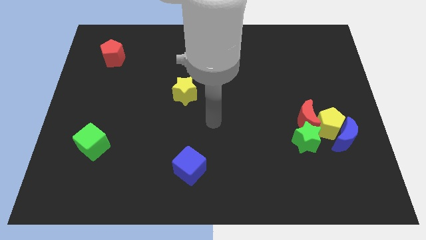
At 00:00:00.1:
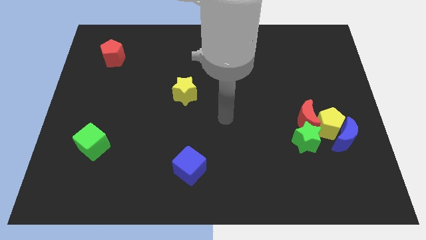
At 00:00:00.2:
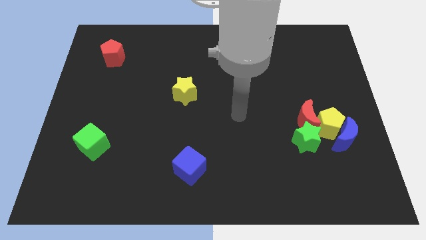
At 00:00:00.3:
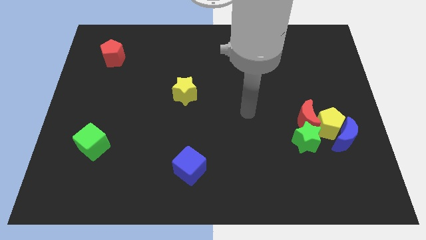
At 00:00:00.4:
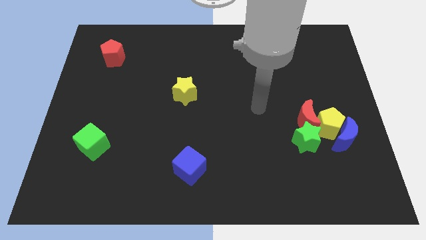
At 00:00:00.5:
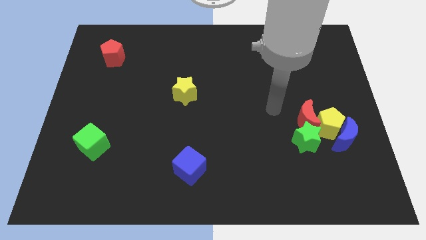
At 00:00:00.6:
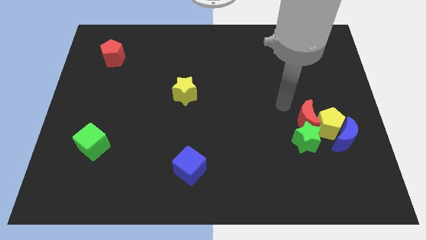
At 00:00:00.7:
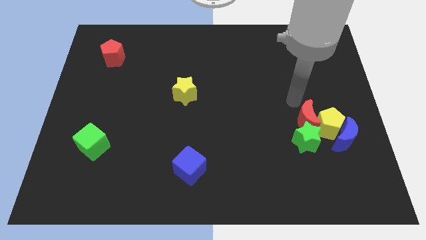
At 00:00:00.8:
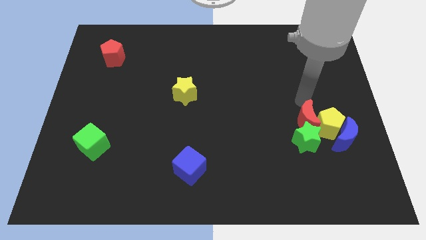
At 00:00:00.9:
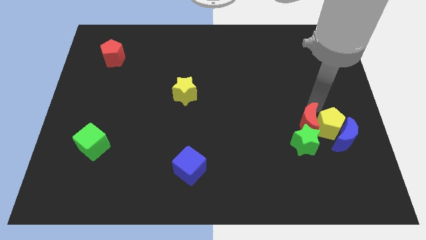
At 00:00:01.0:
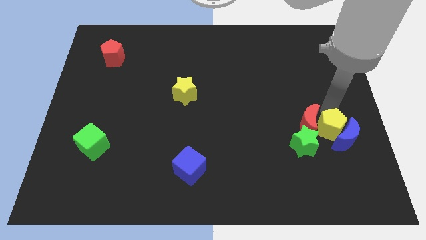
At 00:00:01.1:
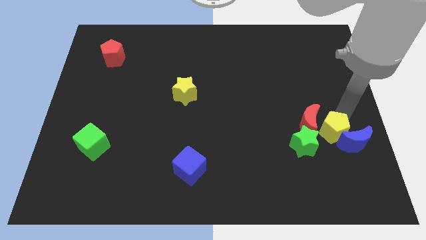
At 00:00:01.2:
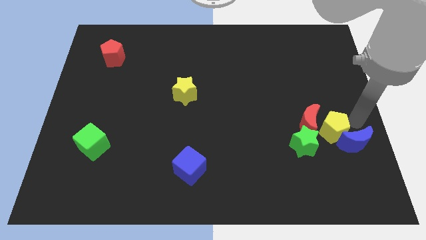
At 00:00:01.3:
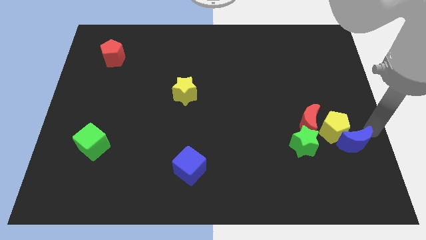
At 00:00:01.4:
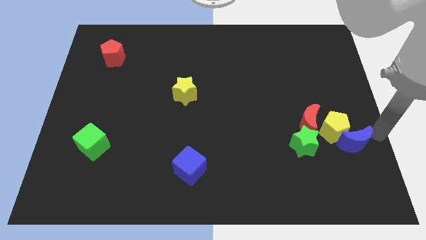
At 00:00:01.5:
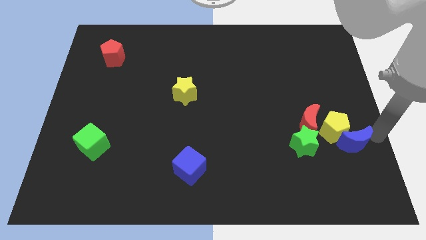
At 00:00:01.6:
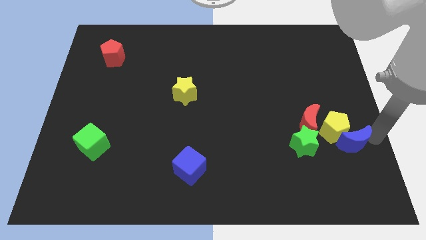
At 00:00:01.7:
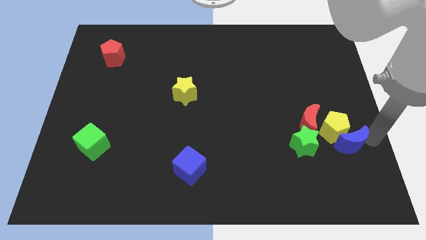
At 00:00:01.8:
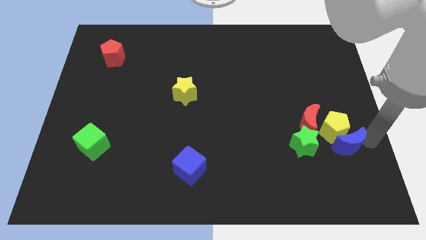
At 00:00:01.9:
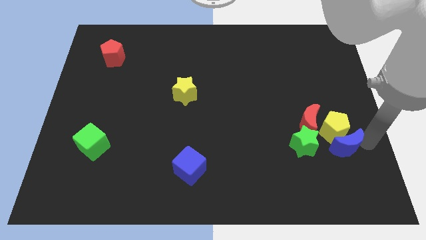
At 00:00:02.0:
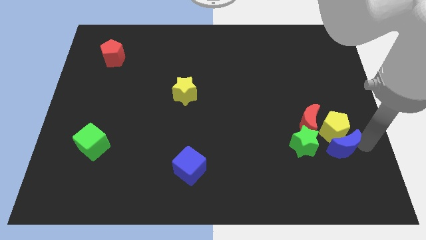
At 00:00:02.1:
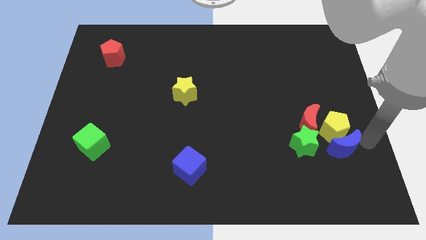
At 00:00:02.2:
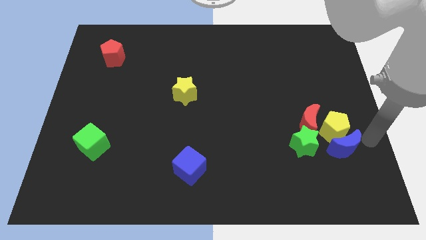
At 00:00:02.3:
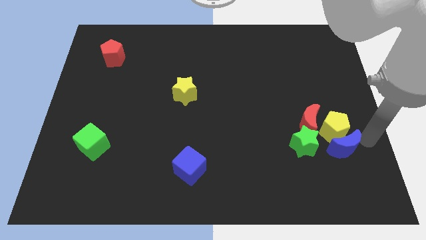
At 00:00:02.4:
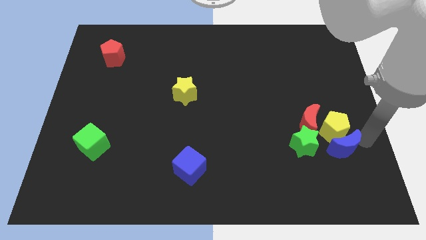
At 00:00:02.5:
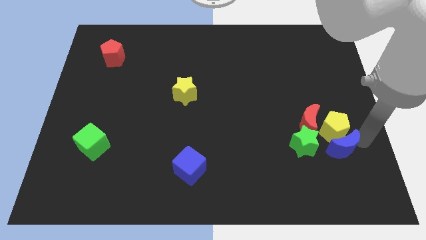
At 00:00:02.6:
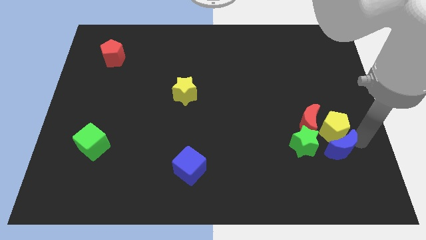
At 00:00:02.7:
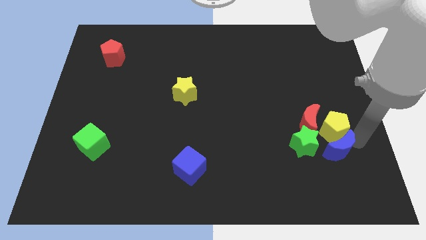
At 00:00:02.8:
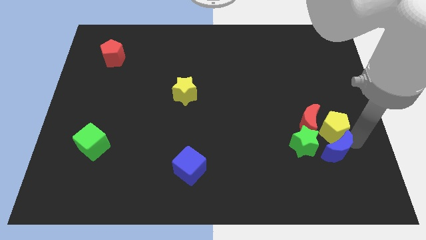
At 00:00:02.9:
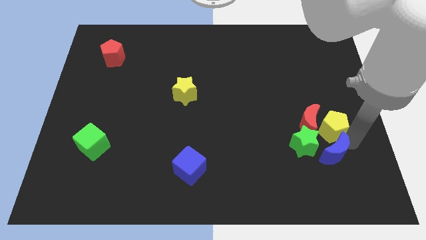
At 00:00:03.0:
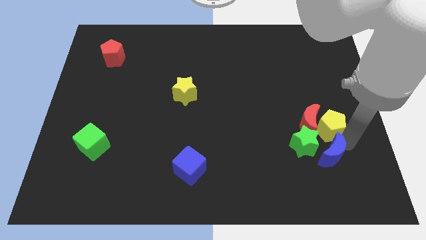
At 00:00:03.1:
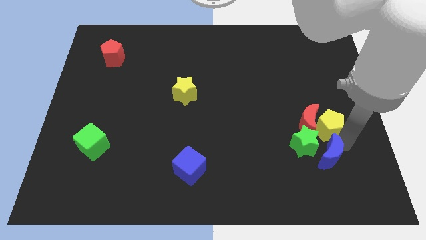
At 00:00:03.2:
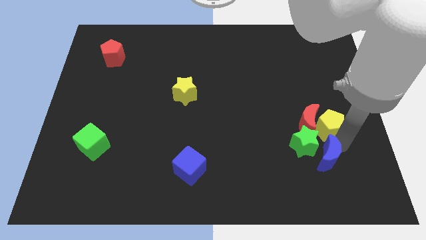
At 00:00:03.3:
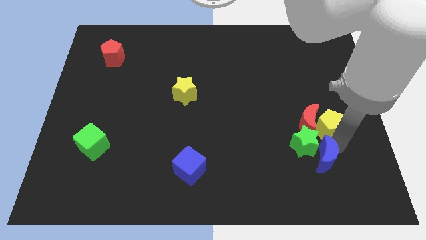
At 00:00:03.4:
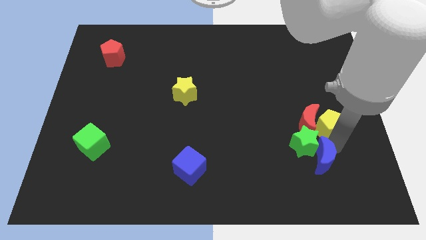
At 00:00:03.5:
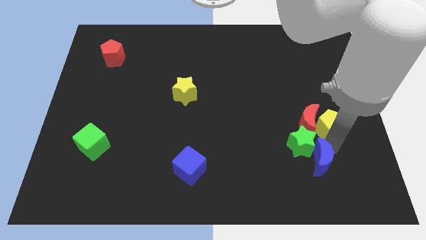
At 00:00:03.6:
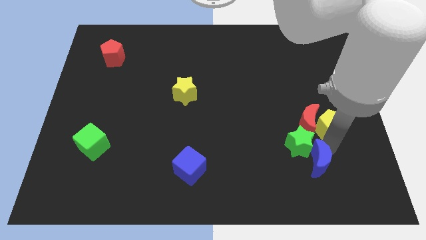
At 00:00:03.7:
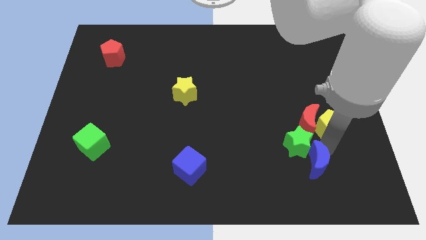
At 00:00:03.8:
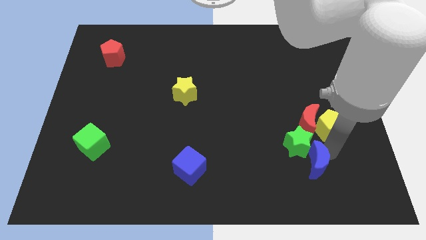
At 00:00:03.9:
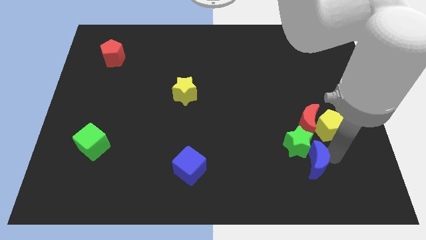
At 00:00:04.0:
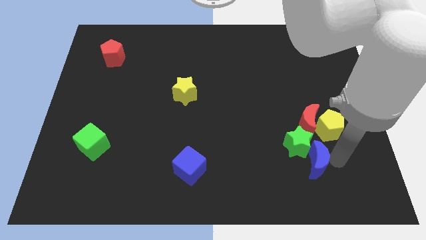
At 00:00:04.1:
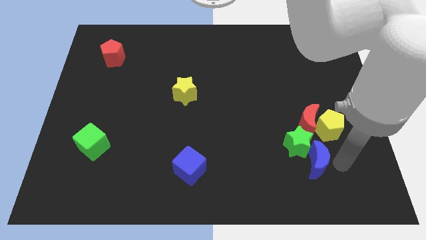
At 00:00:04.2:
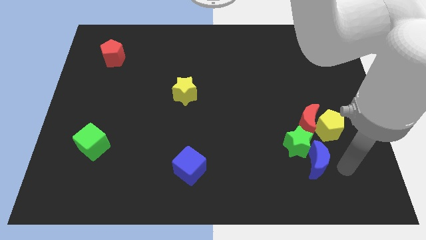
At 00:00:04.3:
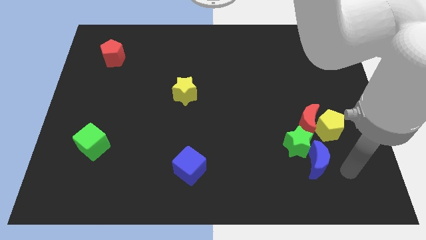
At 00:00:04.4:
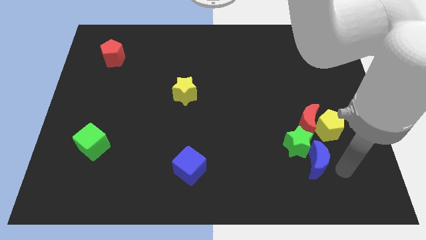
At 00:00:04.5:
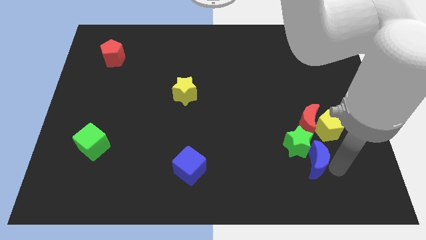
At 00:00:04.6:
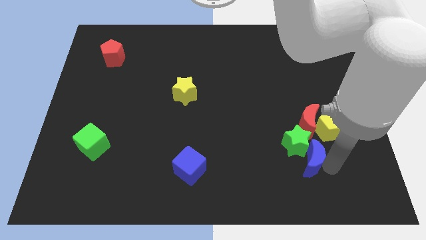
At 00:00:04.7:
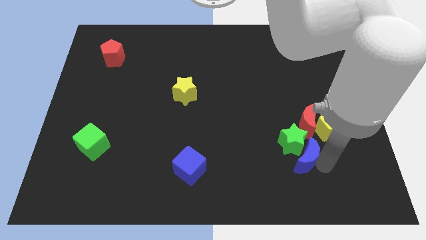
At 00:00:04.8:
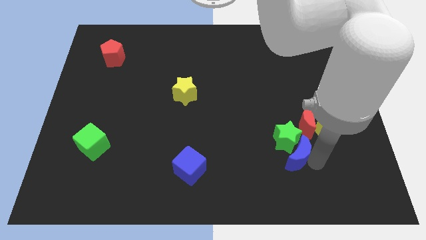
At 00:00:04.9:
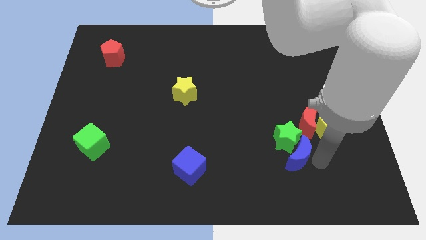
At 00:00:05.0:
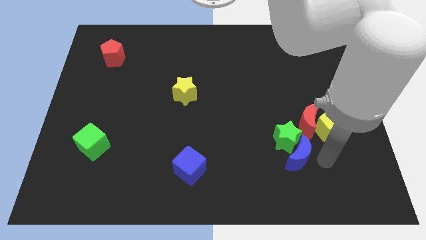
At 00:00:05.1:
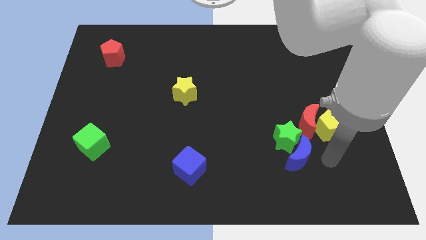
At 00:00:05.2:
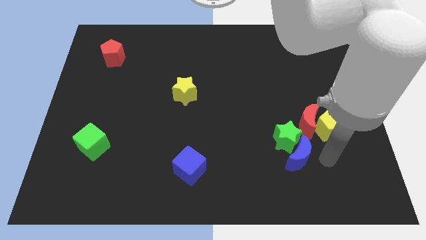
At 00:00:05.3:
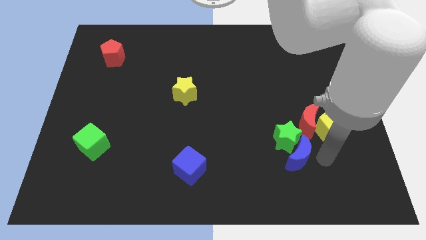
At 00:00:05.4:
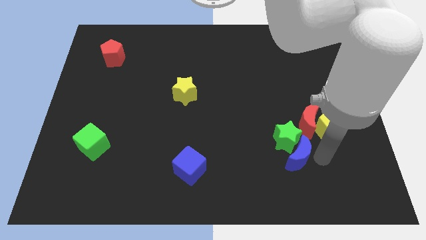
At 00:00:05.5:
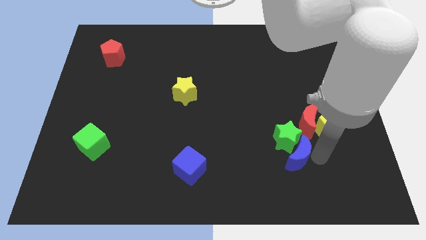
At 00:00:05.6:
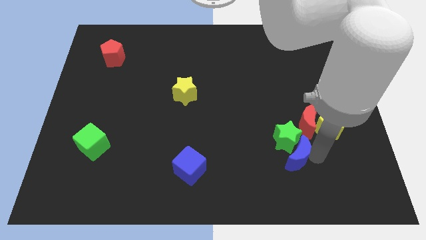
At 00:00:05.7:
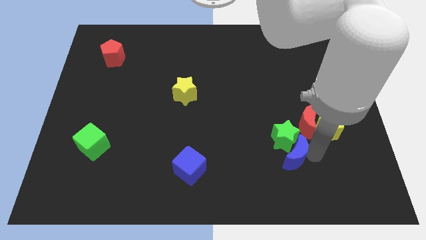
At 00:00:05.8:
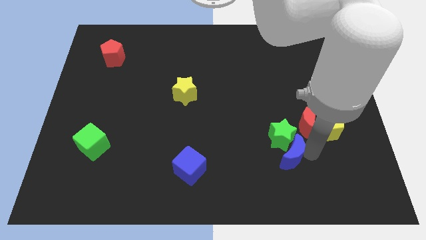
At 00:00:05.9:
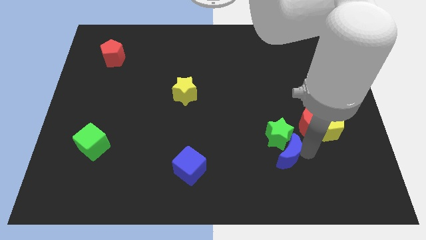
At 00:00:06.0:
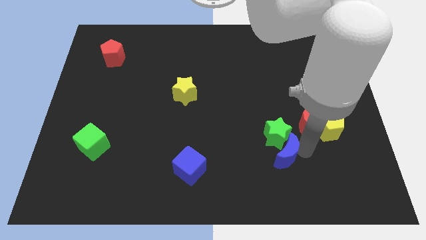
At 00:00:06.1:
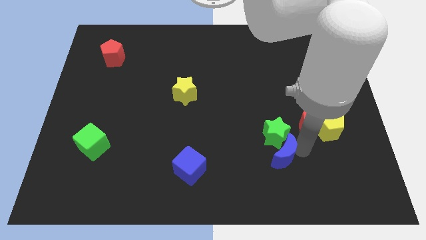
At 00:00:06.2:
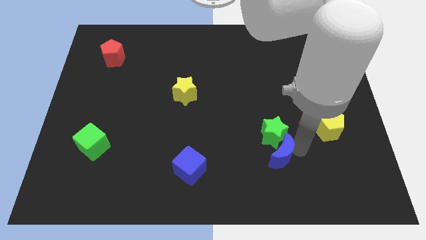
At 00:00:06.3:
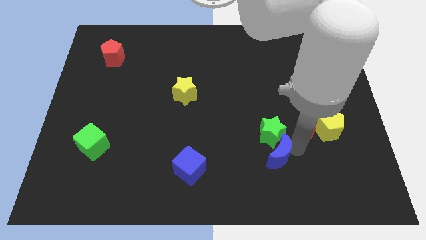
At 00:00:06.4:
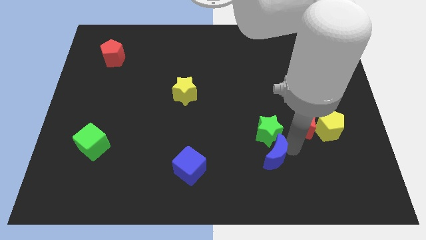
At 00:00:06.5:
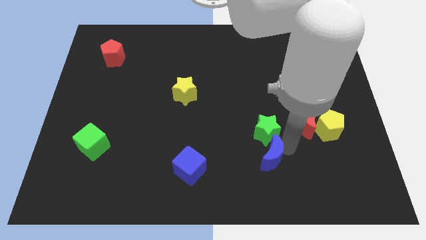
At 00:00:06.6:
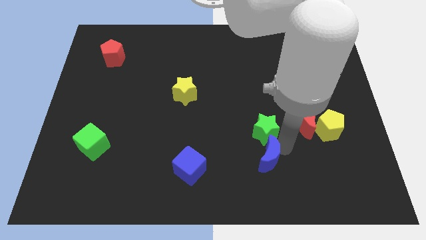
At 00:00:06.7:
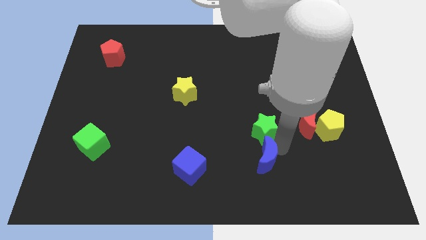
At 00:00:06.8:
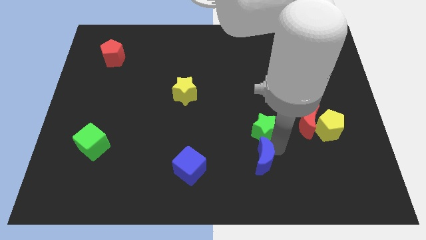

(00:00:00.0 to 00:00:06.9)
put the blue moon to the right of the blue cube

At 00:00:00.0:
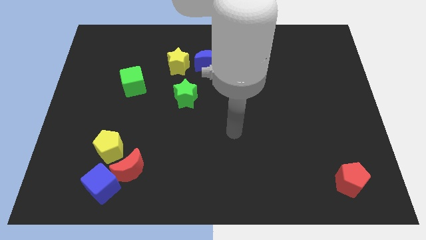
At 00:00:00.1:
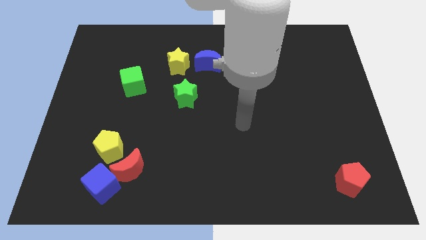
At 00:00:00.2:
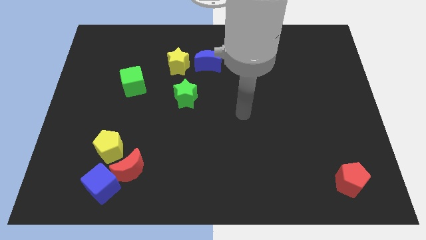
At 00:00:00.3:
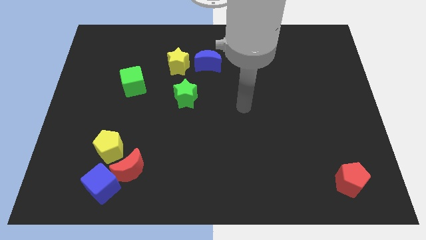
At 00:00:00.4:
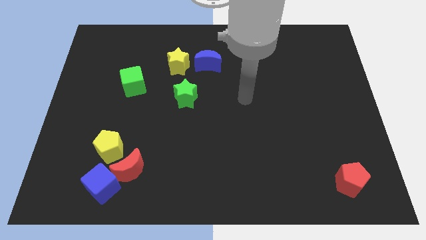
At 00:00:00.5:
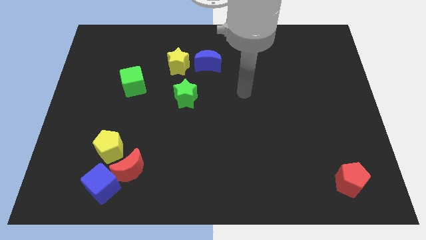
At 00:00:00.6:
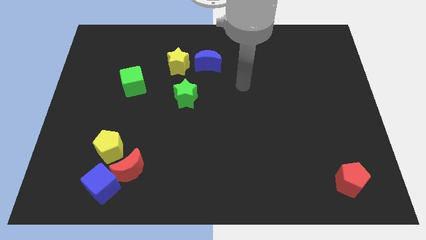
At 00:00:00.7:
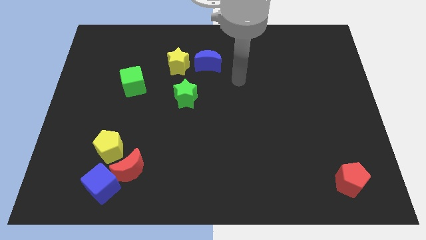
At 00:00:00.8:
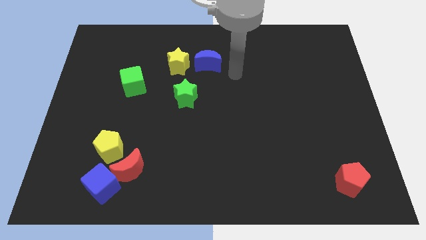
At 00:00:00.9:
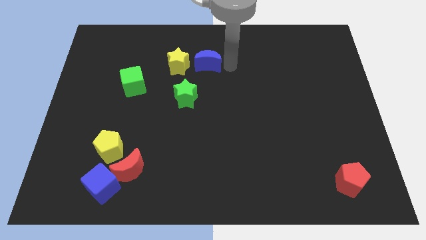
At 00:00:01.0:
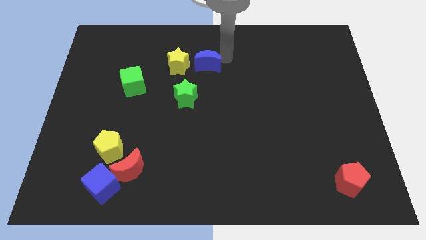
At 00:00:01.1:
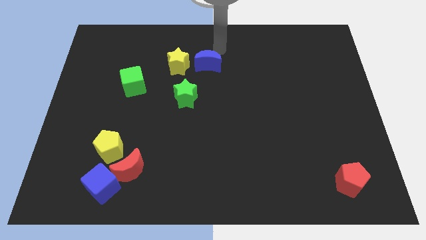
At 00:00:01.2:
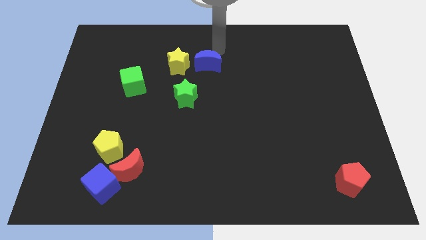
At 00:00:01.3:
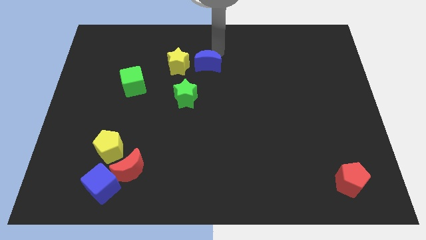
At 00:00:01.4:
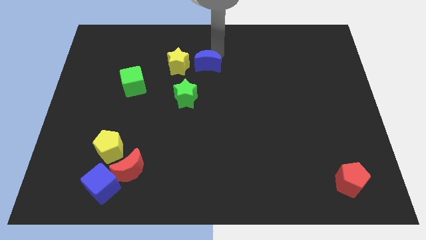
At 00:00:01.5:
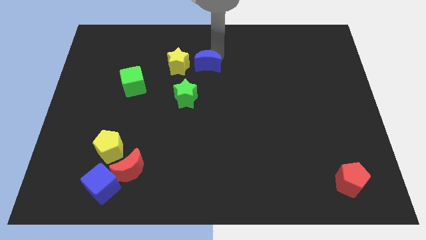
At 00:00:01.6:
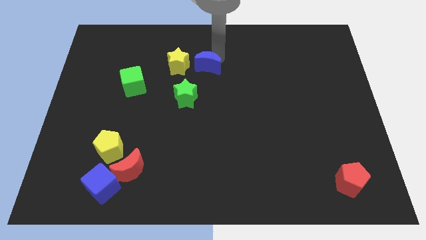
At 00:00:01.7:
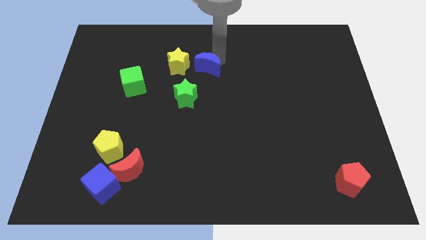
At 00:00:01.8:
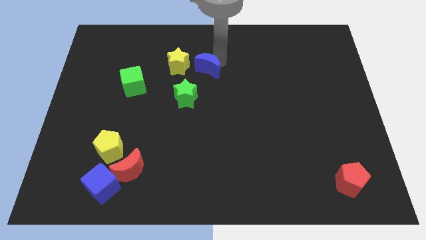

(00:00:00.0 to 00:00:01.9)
slide the blue moon to the bottom right of the yellow star
